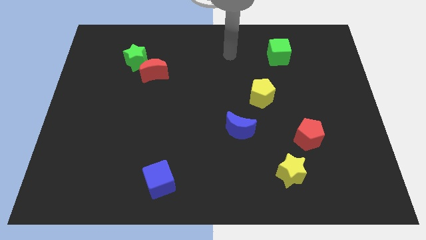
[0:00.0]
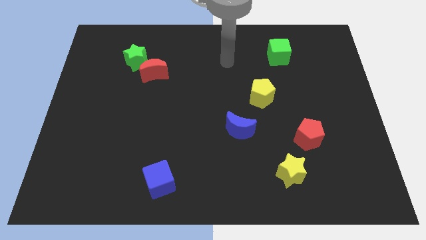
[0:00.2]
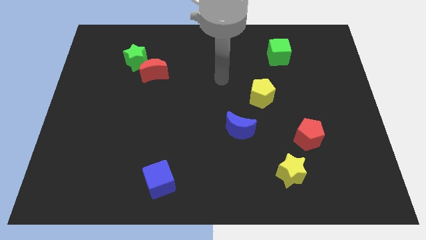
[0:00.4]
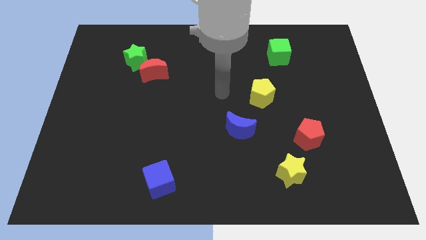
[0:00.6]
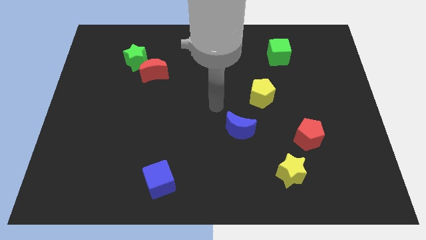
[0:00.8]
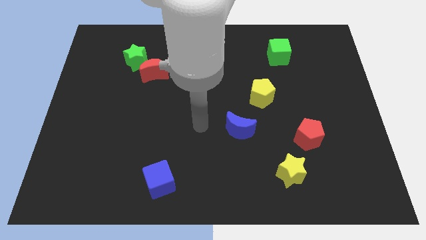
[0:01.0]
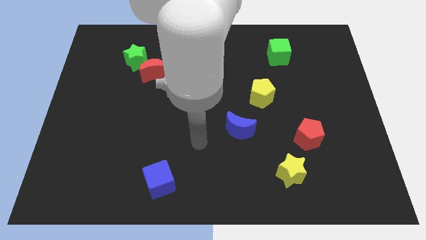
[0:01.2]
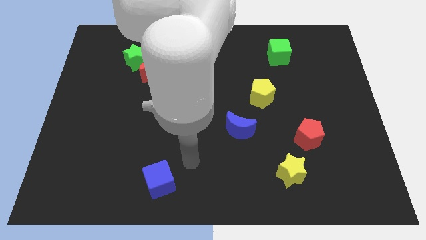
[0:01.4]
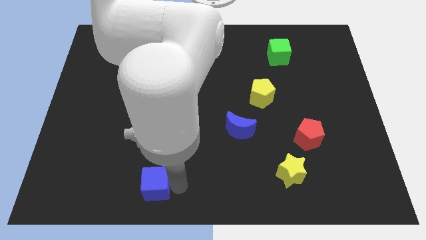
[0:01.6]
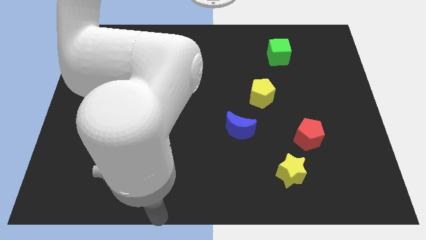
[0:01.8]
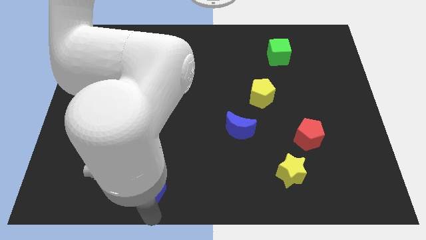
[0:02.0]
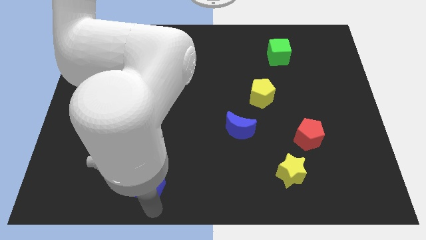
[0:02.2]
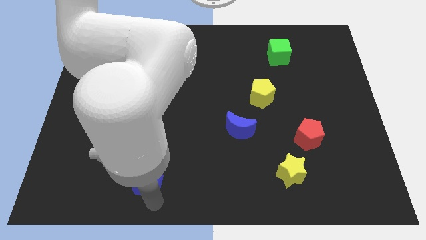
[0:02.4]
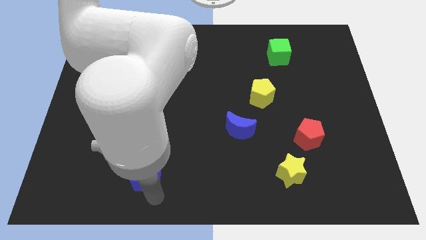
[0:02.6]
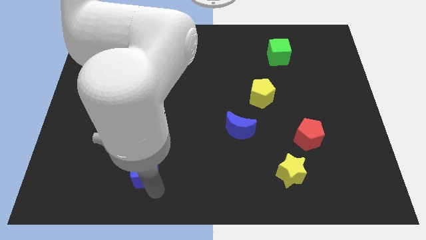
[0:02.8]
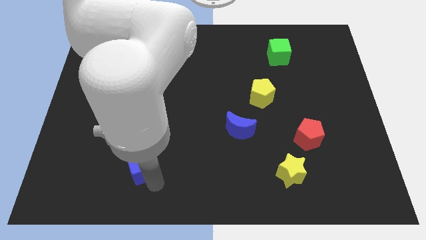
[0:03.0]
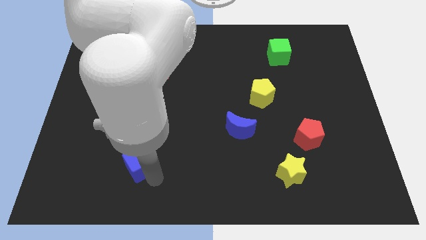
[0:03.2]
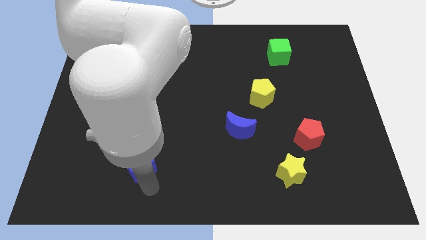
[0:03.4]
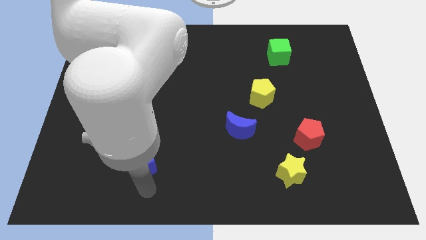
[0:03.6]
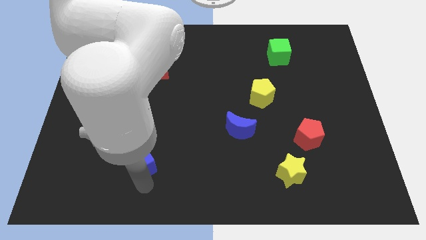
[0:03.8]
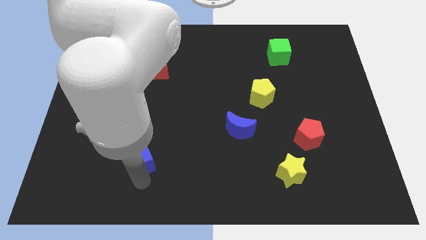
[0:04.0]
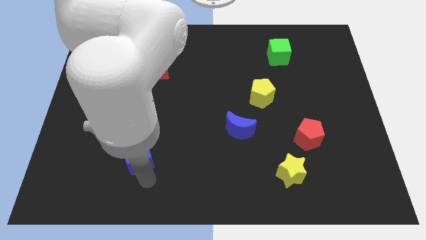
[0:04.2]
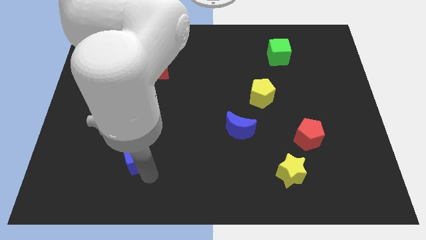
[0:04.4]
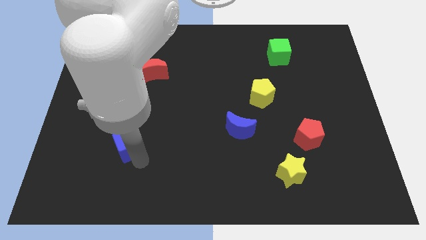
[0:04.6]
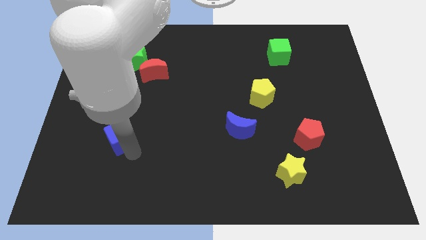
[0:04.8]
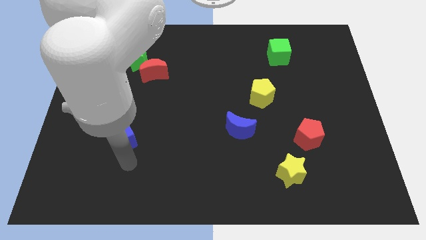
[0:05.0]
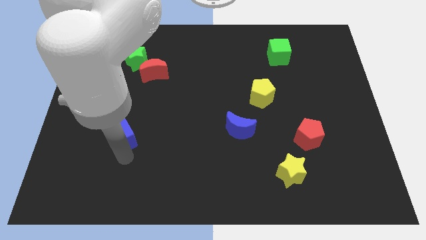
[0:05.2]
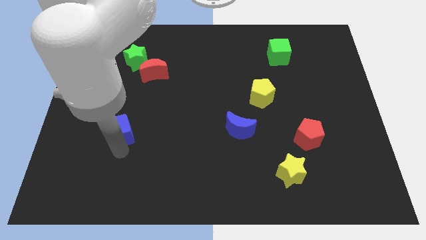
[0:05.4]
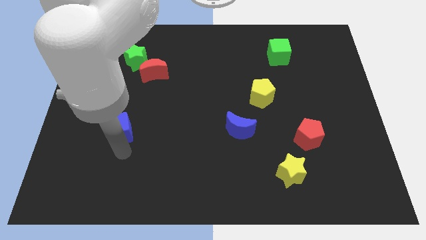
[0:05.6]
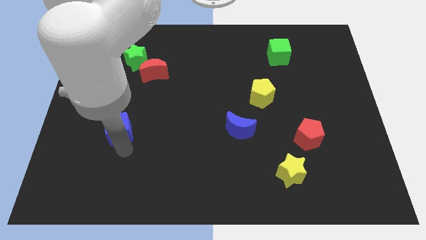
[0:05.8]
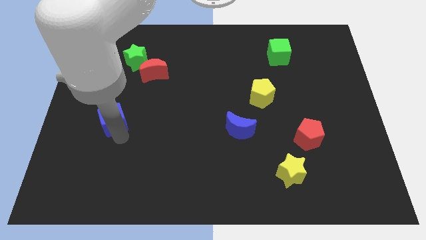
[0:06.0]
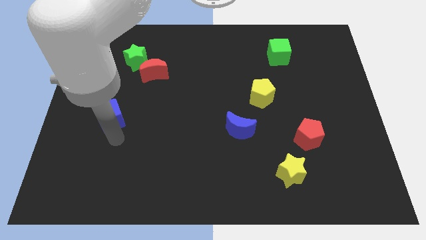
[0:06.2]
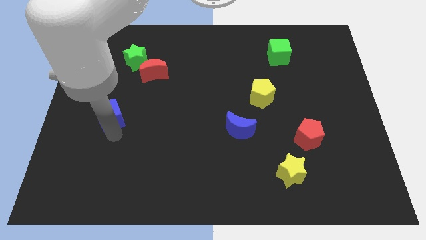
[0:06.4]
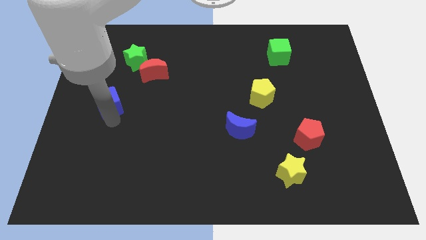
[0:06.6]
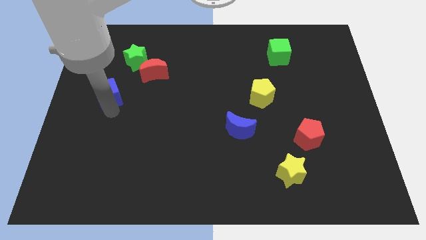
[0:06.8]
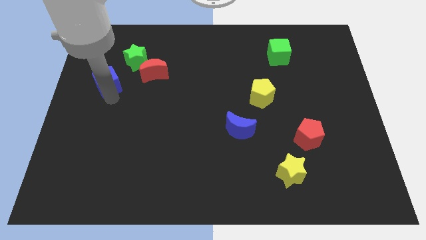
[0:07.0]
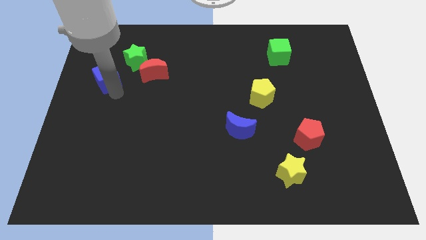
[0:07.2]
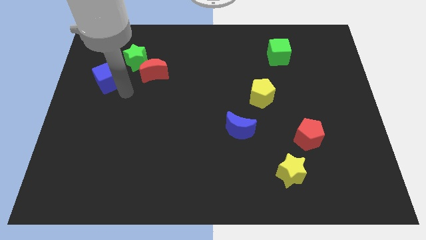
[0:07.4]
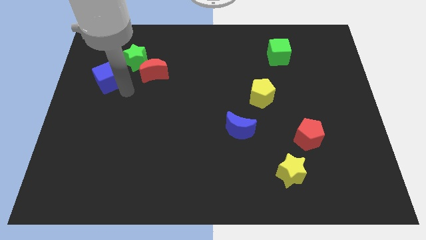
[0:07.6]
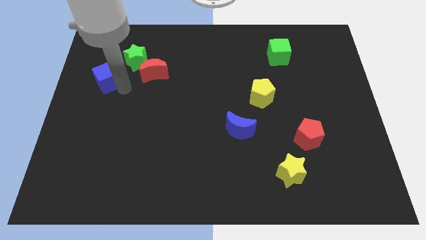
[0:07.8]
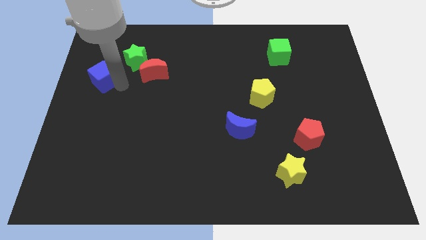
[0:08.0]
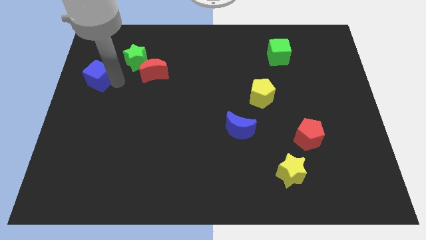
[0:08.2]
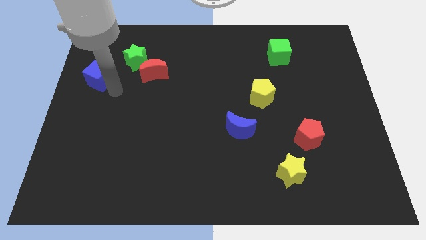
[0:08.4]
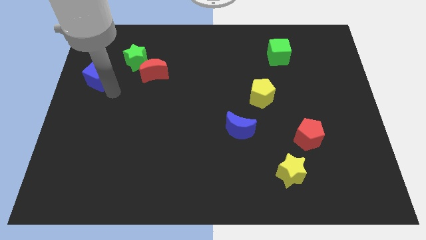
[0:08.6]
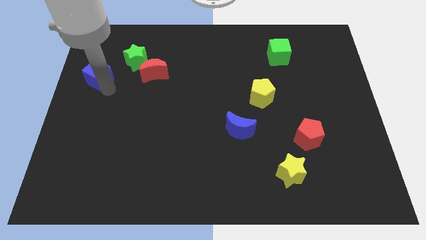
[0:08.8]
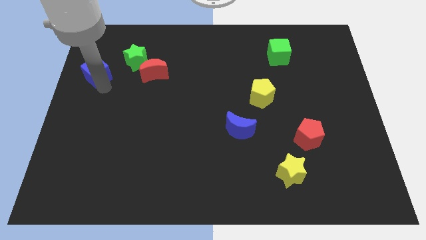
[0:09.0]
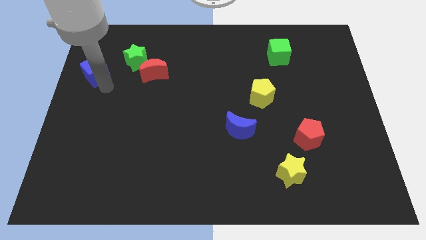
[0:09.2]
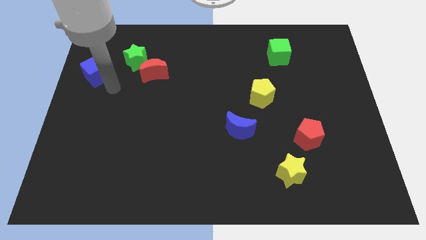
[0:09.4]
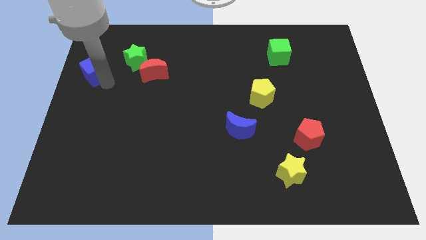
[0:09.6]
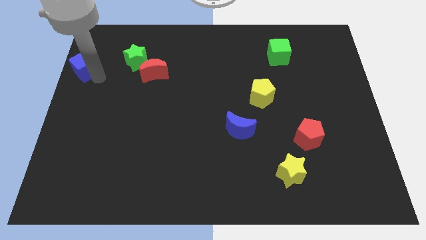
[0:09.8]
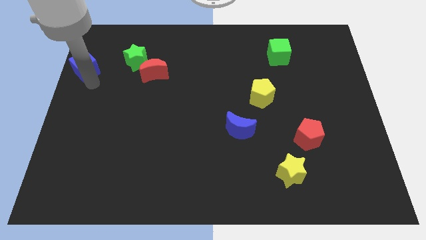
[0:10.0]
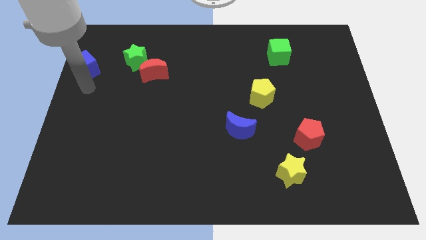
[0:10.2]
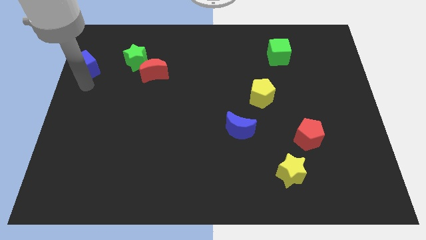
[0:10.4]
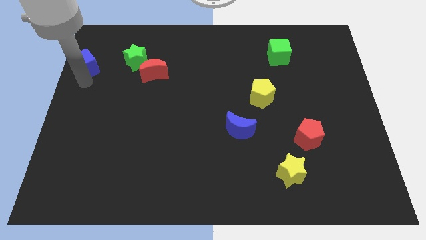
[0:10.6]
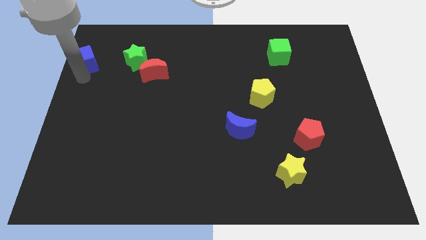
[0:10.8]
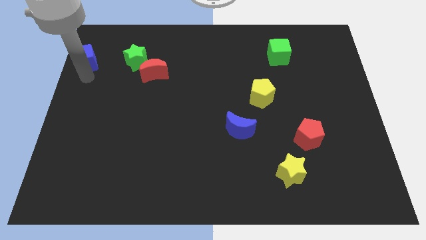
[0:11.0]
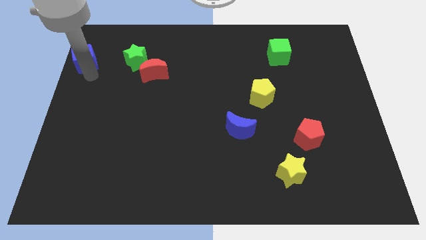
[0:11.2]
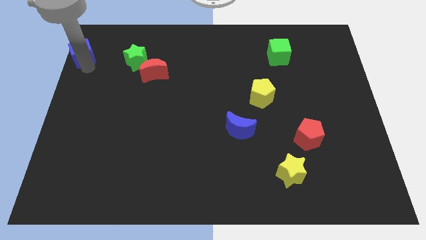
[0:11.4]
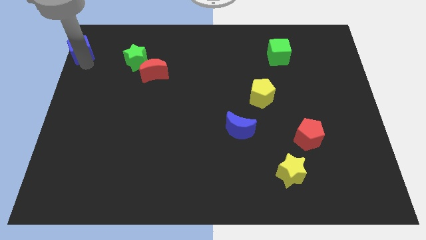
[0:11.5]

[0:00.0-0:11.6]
move the blue cube to the upper left corner
